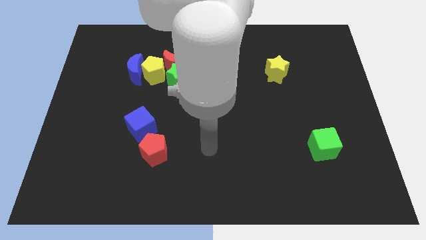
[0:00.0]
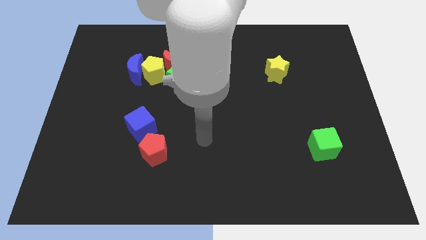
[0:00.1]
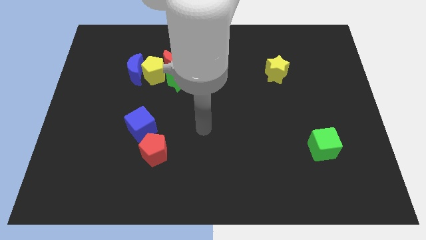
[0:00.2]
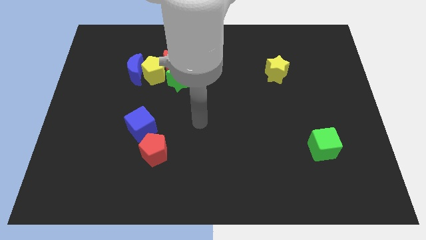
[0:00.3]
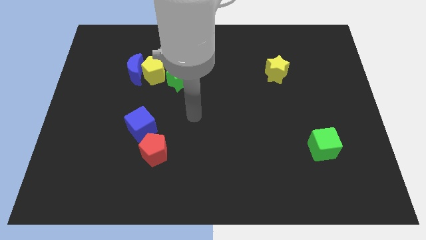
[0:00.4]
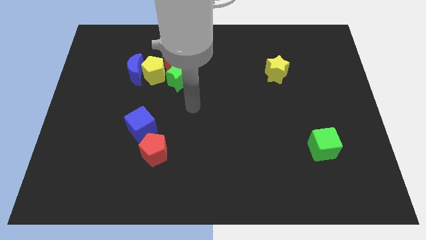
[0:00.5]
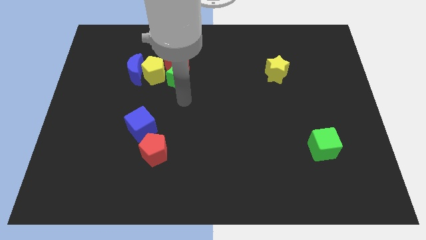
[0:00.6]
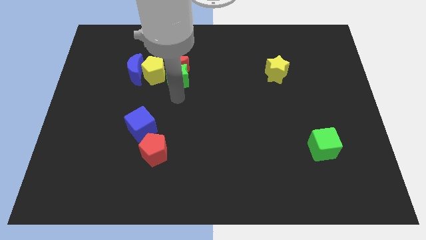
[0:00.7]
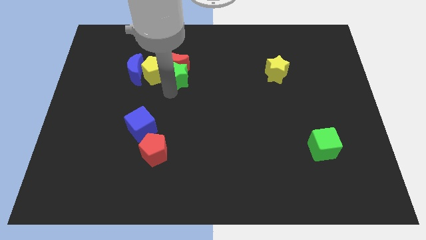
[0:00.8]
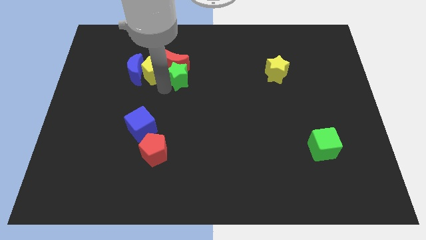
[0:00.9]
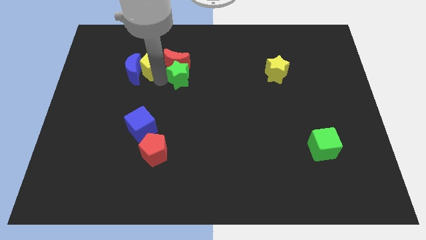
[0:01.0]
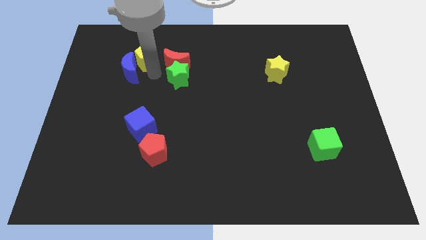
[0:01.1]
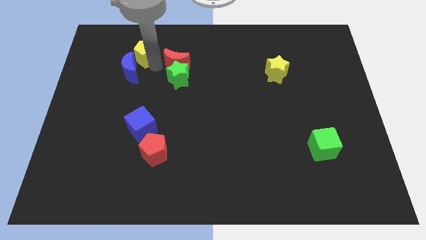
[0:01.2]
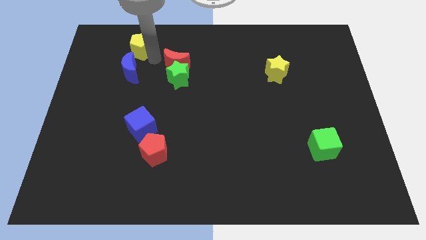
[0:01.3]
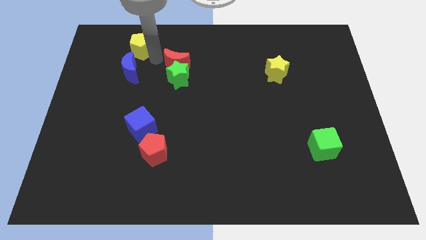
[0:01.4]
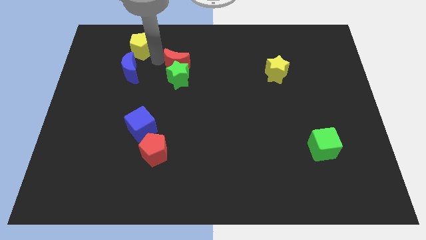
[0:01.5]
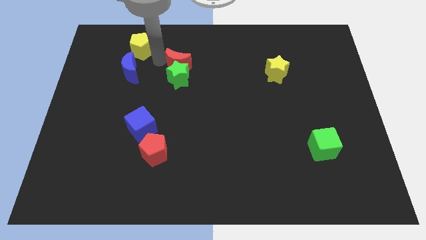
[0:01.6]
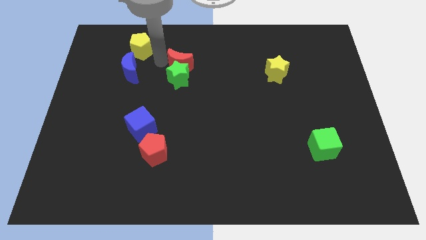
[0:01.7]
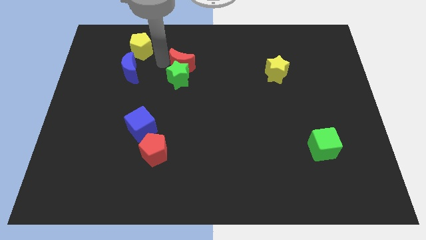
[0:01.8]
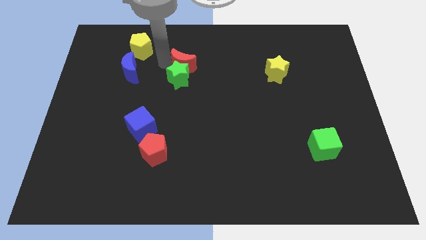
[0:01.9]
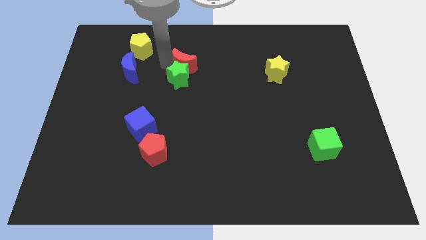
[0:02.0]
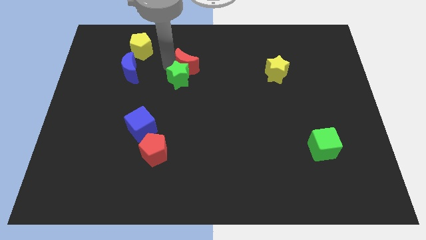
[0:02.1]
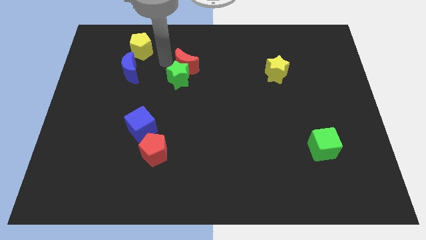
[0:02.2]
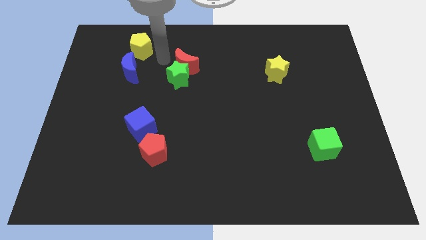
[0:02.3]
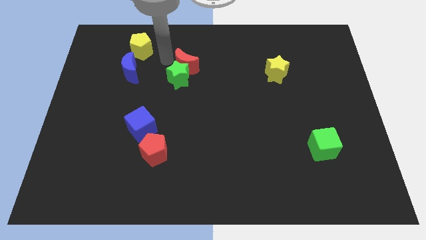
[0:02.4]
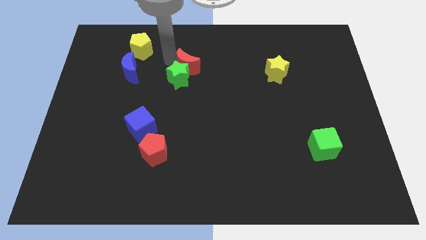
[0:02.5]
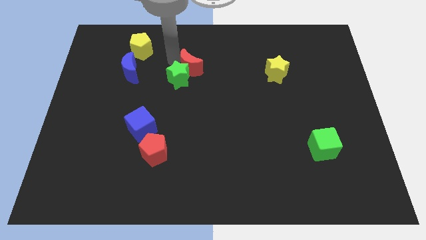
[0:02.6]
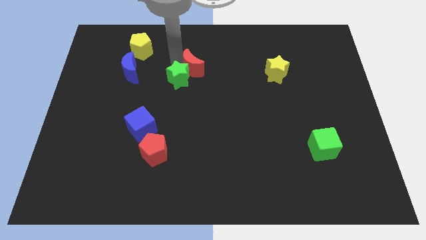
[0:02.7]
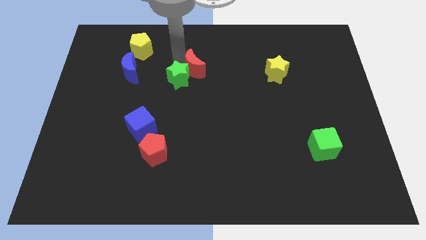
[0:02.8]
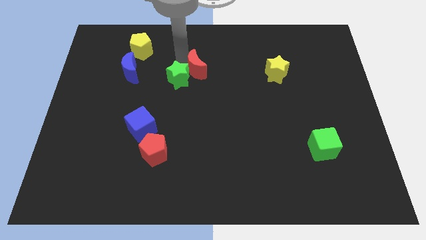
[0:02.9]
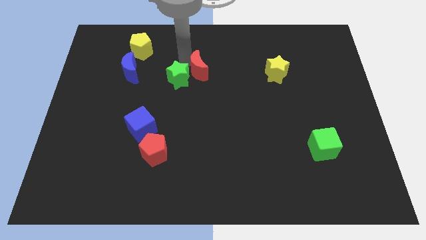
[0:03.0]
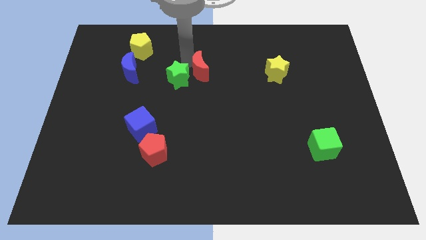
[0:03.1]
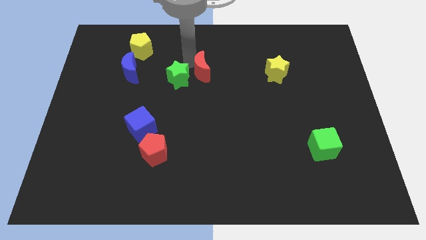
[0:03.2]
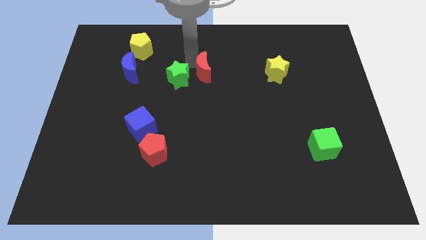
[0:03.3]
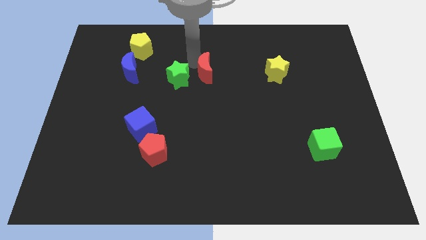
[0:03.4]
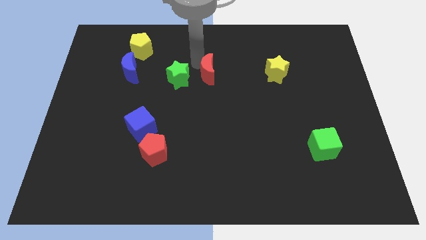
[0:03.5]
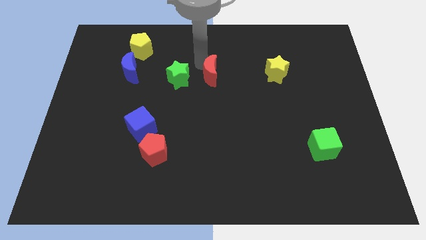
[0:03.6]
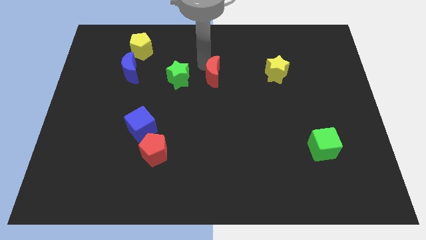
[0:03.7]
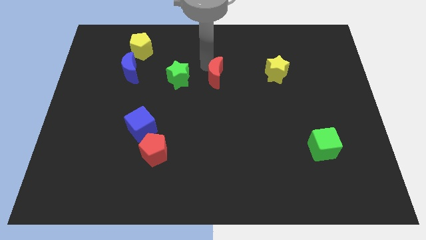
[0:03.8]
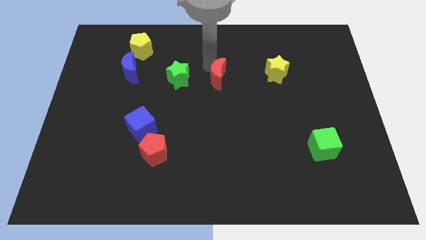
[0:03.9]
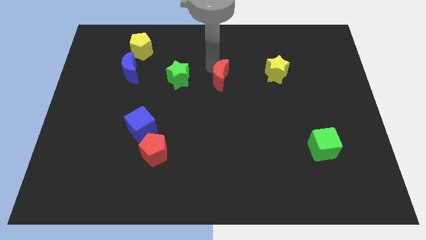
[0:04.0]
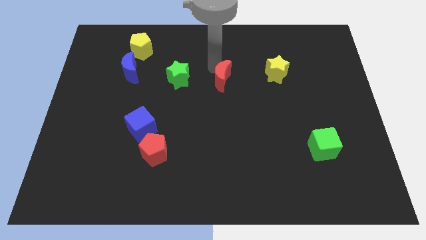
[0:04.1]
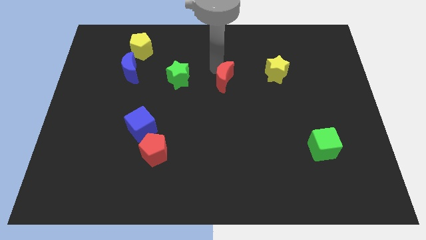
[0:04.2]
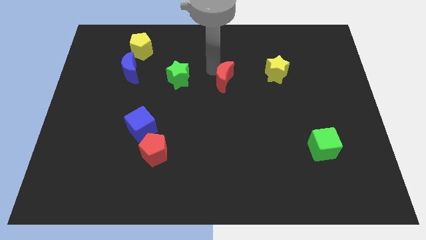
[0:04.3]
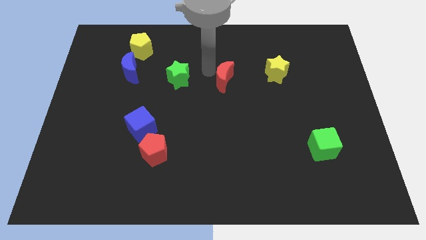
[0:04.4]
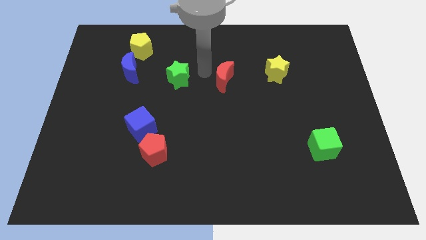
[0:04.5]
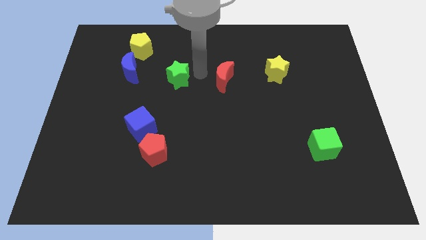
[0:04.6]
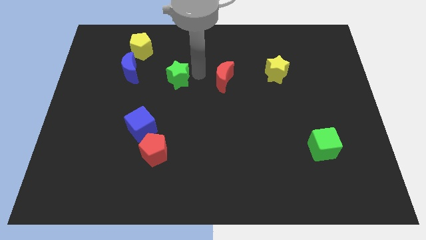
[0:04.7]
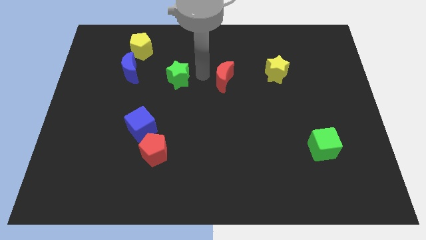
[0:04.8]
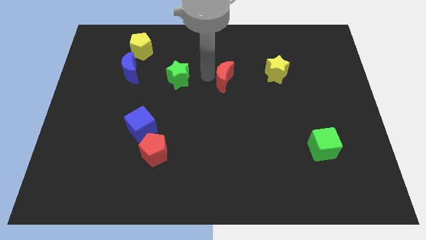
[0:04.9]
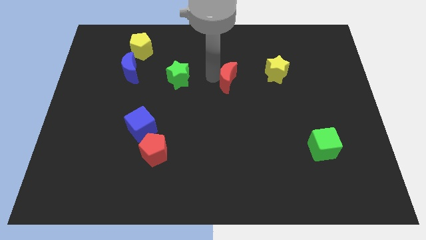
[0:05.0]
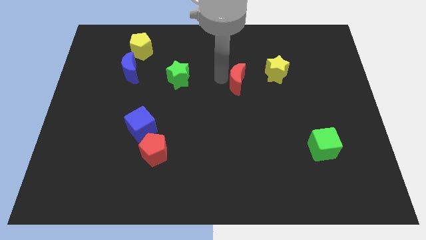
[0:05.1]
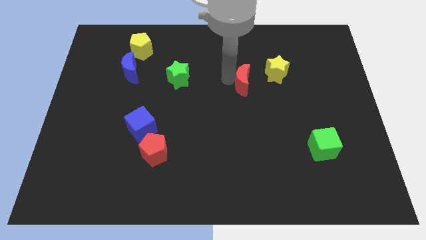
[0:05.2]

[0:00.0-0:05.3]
move the red moon to the bottom left side of the yellow star

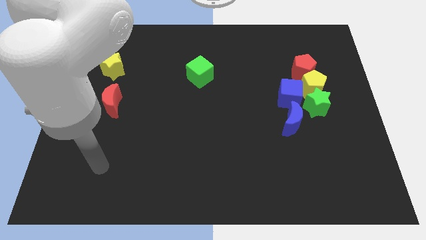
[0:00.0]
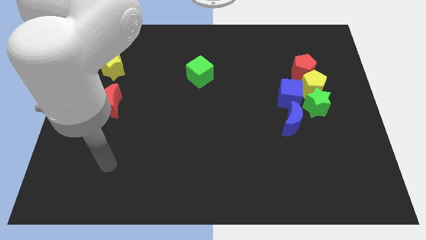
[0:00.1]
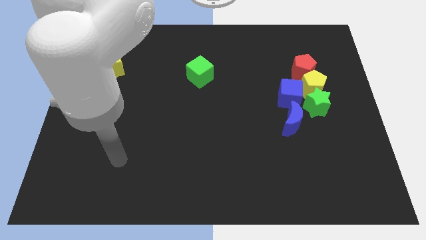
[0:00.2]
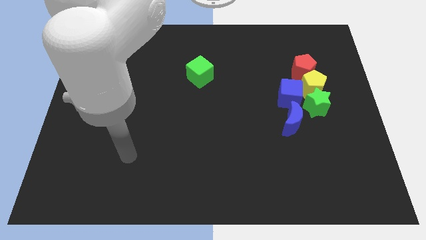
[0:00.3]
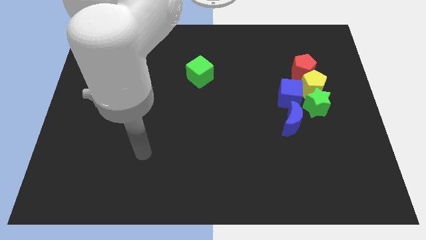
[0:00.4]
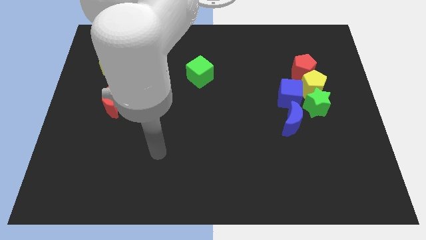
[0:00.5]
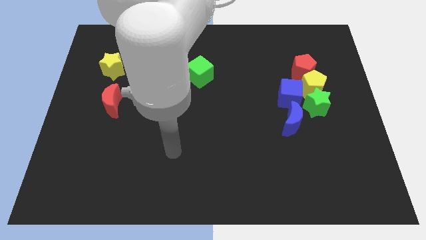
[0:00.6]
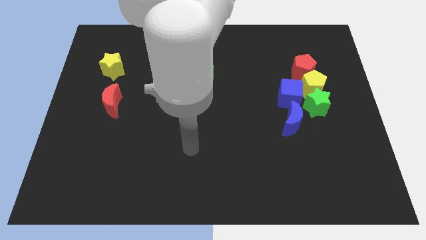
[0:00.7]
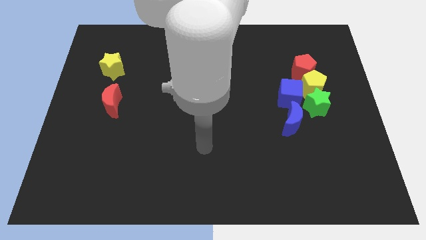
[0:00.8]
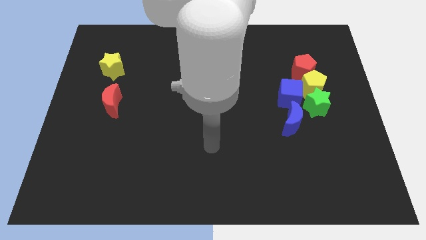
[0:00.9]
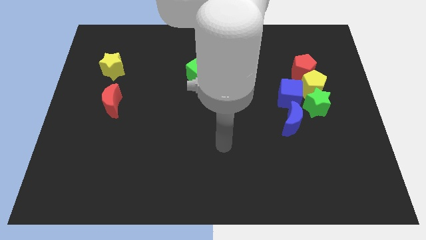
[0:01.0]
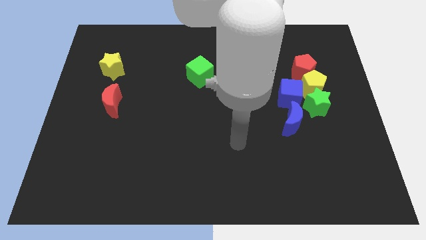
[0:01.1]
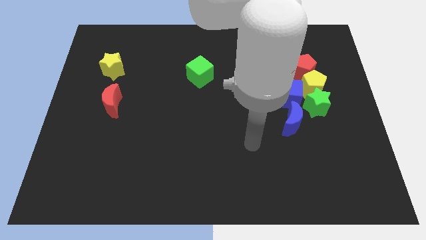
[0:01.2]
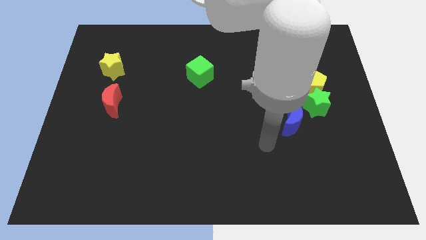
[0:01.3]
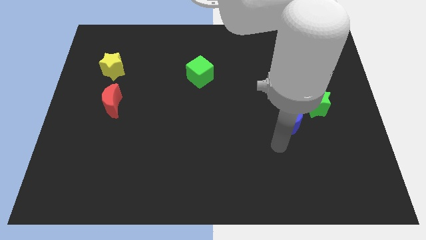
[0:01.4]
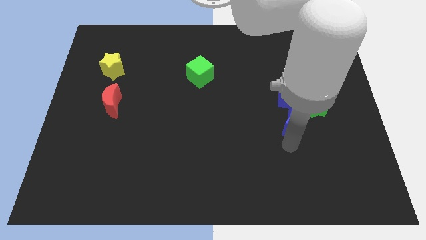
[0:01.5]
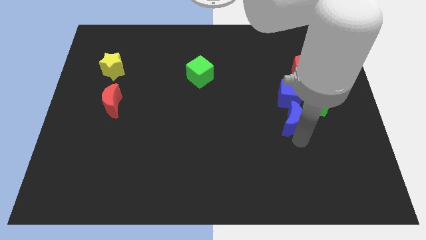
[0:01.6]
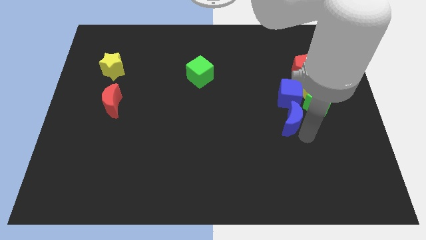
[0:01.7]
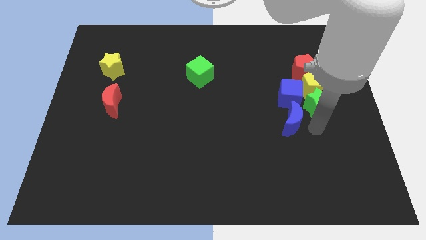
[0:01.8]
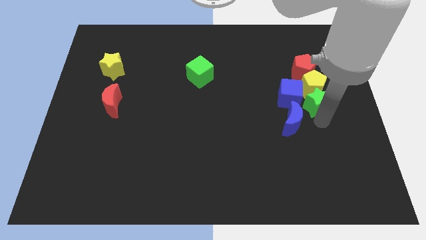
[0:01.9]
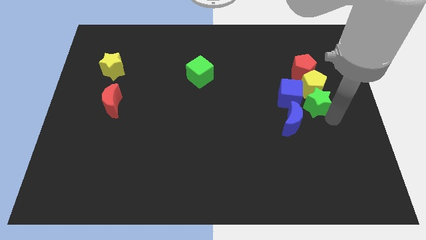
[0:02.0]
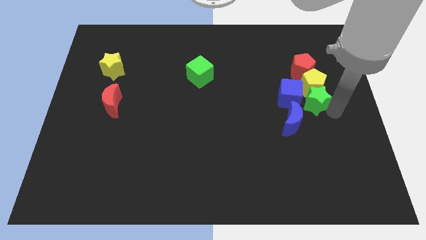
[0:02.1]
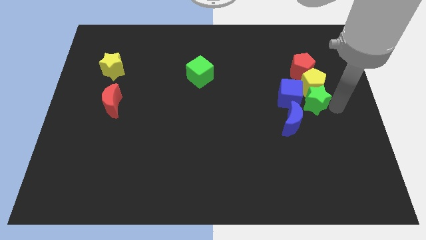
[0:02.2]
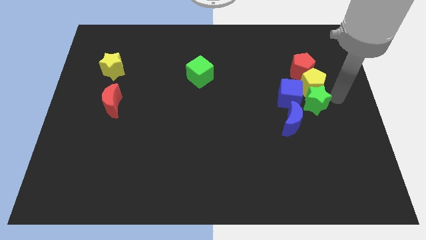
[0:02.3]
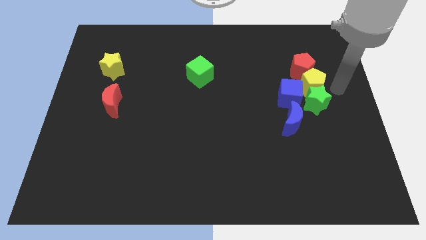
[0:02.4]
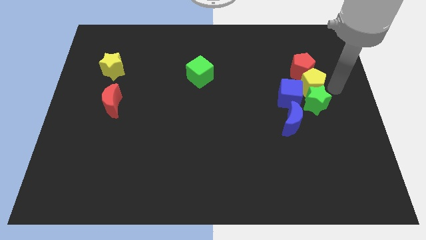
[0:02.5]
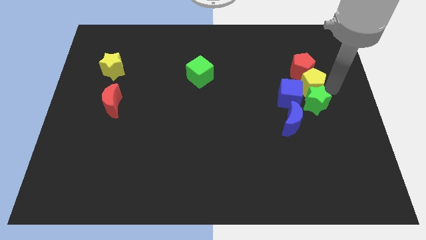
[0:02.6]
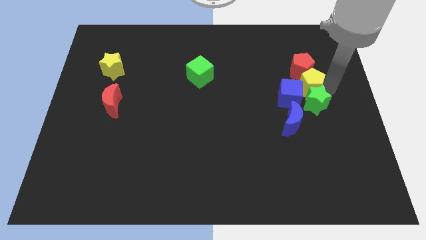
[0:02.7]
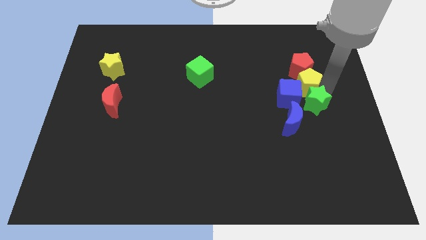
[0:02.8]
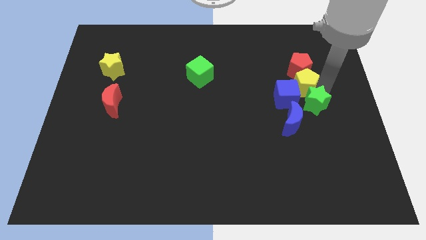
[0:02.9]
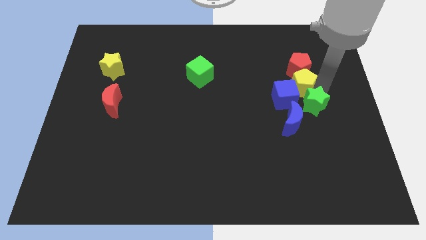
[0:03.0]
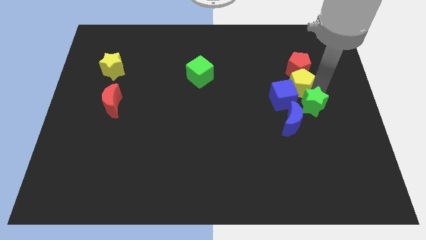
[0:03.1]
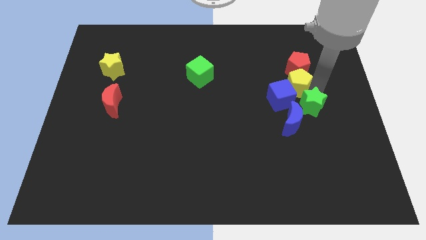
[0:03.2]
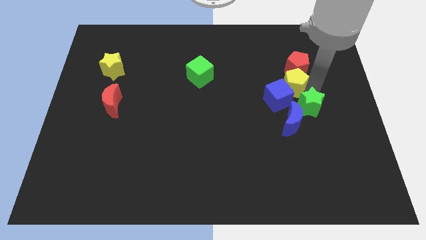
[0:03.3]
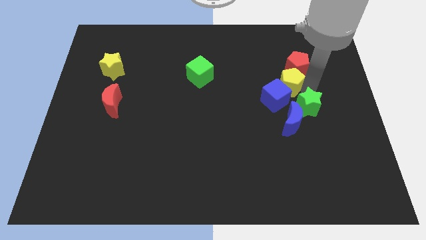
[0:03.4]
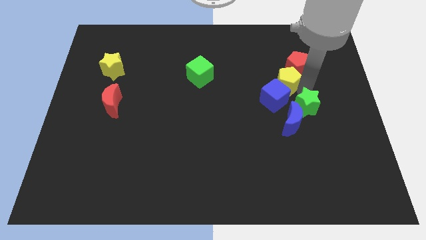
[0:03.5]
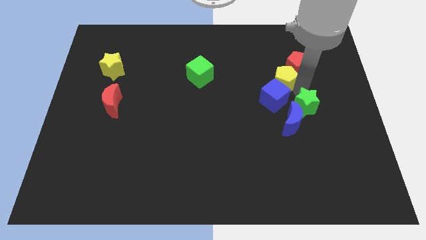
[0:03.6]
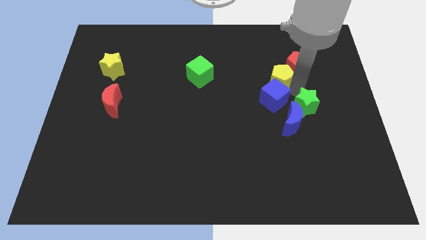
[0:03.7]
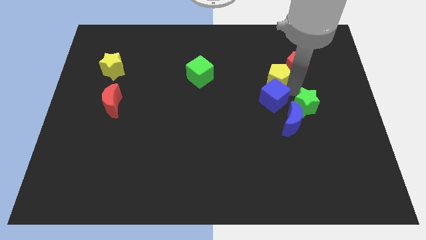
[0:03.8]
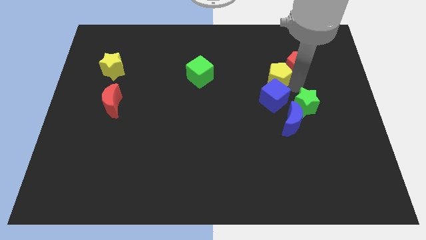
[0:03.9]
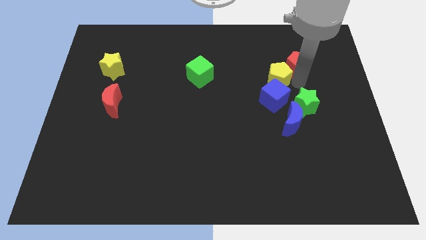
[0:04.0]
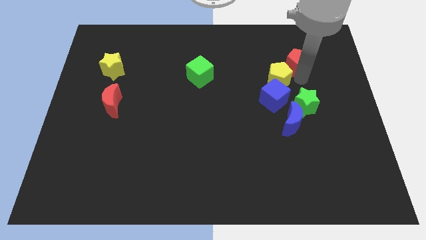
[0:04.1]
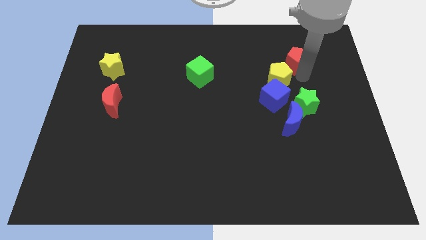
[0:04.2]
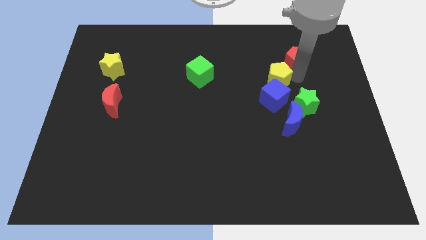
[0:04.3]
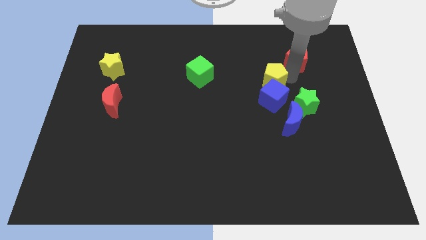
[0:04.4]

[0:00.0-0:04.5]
move the yellow pentagon to the top left of the blue cube
